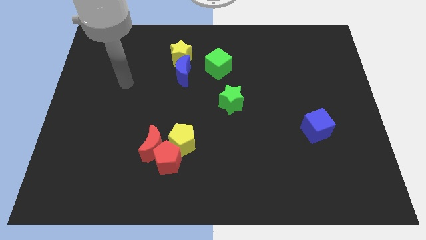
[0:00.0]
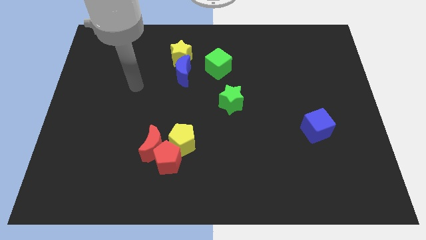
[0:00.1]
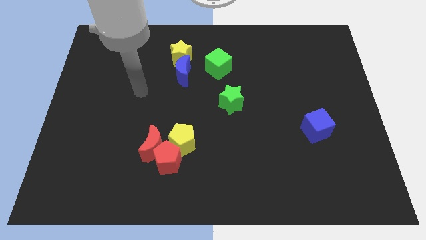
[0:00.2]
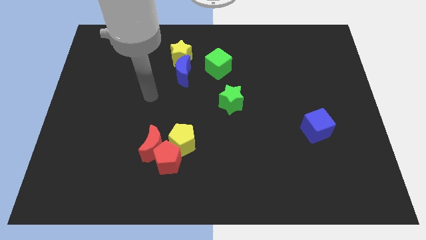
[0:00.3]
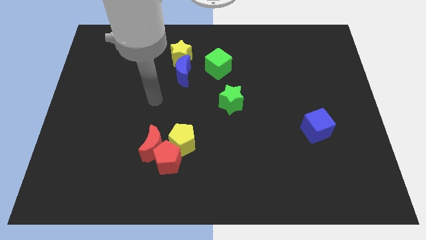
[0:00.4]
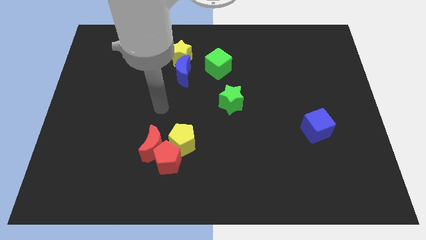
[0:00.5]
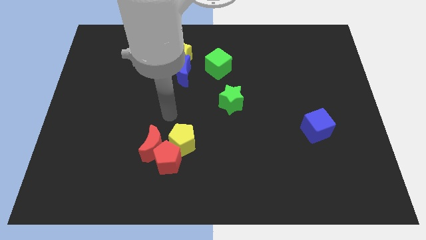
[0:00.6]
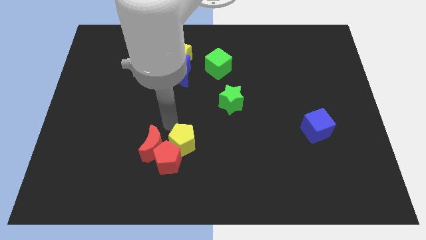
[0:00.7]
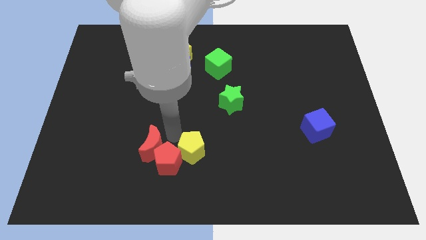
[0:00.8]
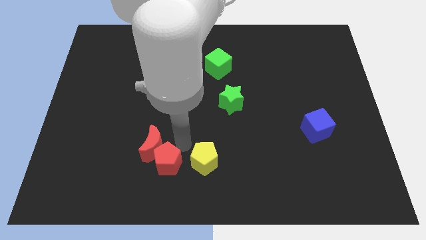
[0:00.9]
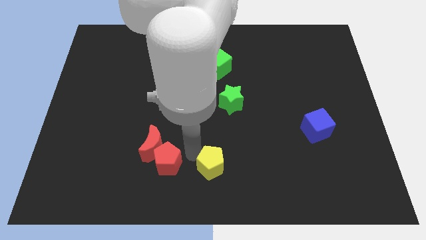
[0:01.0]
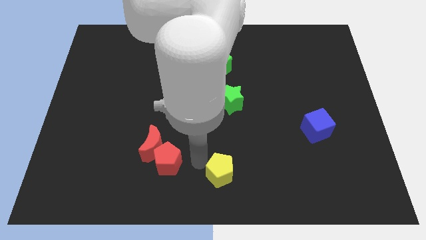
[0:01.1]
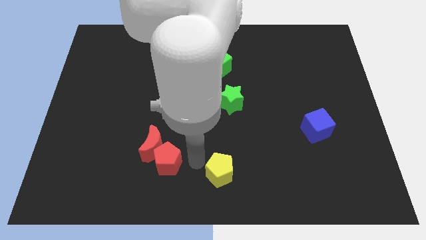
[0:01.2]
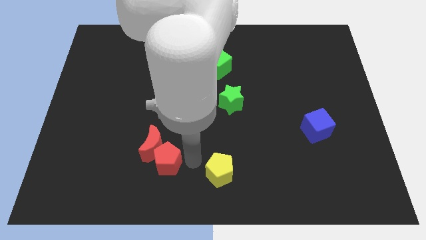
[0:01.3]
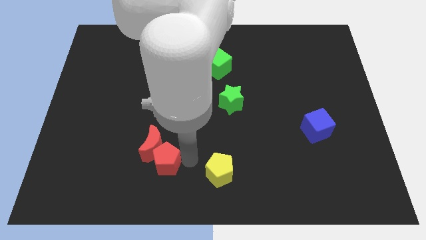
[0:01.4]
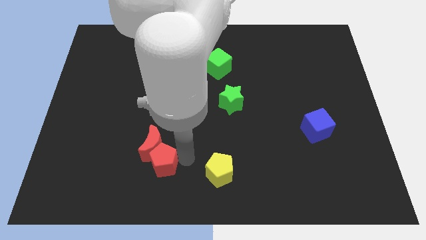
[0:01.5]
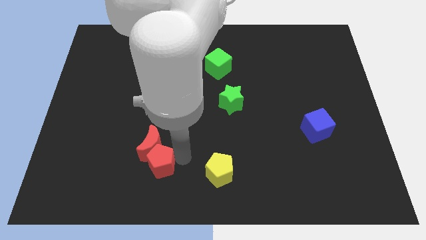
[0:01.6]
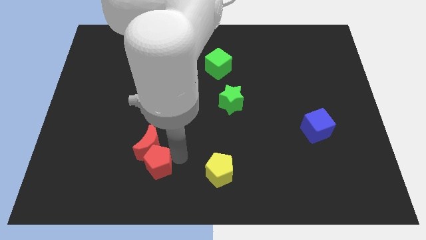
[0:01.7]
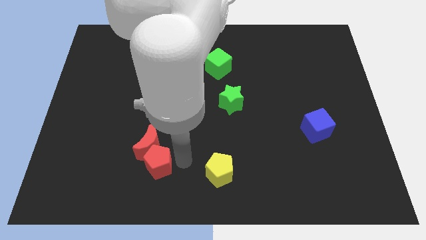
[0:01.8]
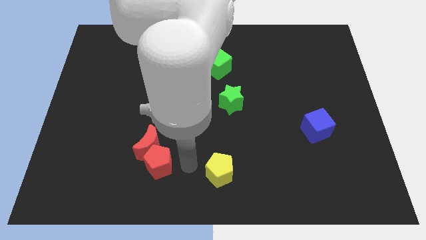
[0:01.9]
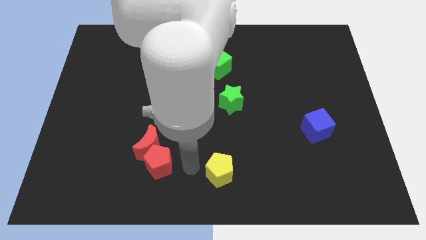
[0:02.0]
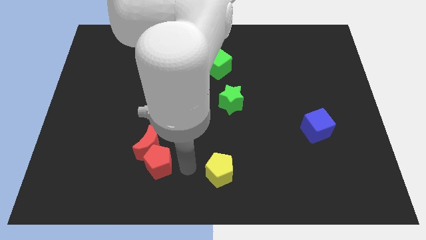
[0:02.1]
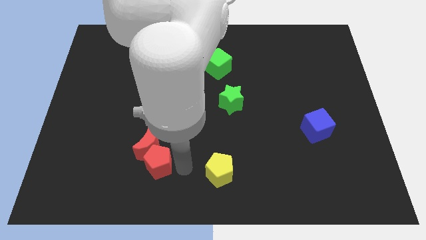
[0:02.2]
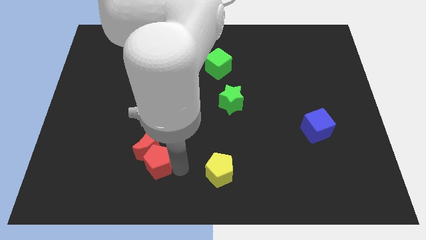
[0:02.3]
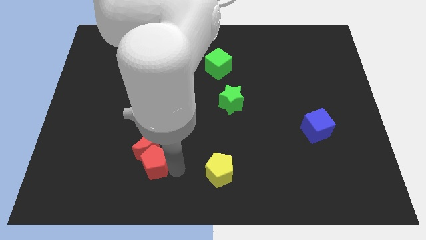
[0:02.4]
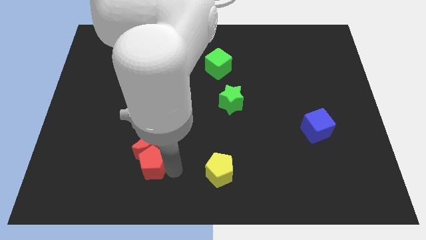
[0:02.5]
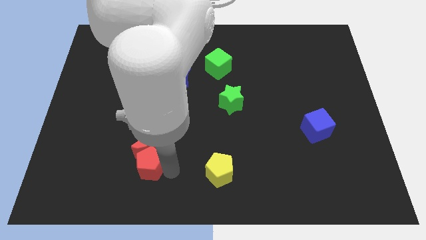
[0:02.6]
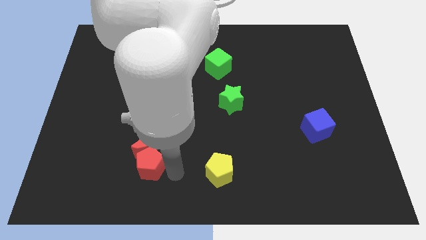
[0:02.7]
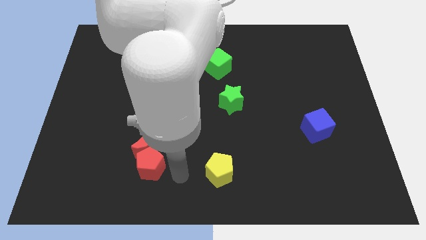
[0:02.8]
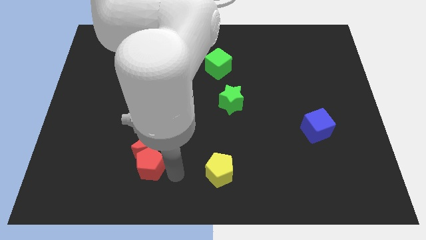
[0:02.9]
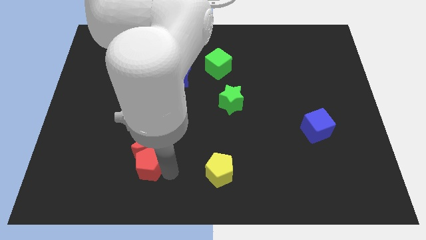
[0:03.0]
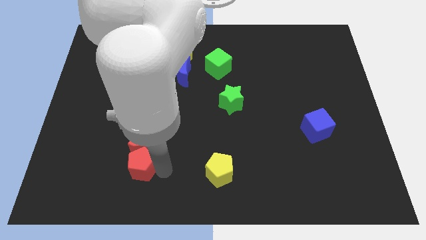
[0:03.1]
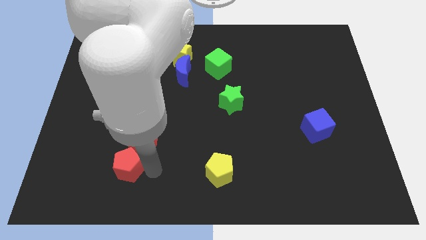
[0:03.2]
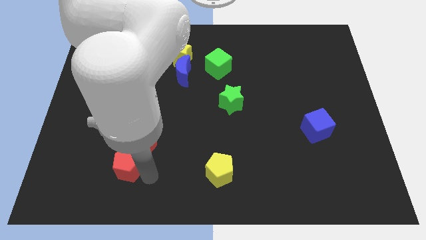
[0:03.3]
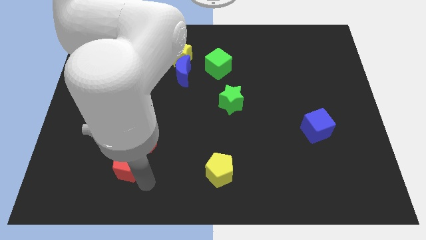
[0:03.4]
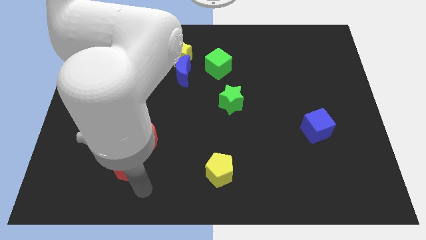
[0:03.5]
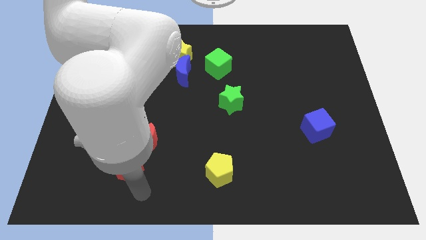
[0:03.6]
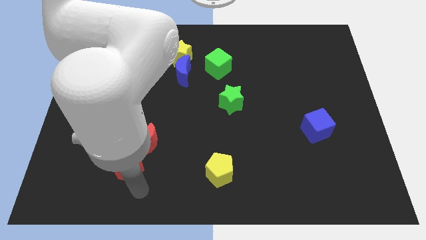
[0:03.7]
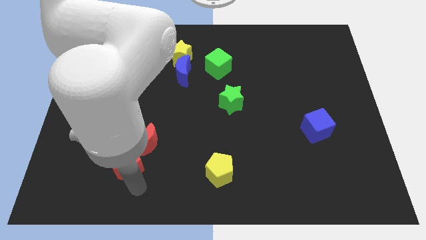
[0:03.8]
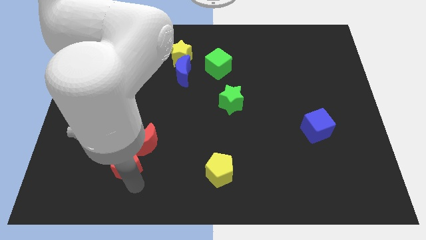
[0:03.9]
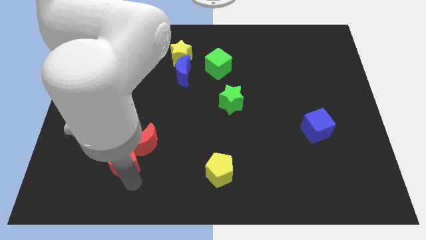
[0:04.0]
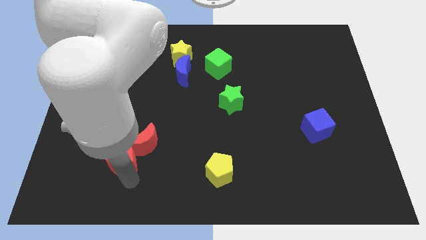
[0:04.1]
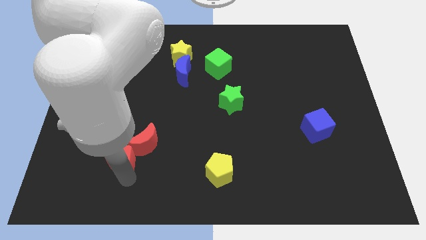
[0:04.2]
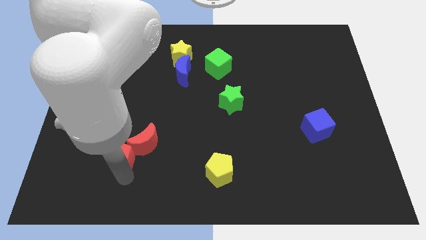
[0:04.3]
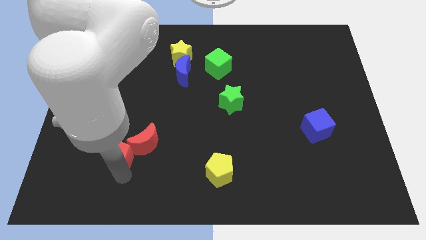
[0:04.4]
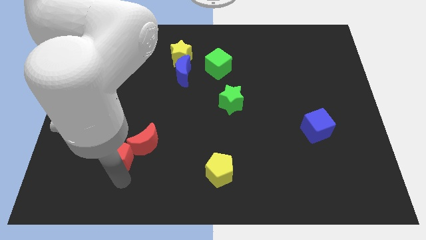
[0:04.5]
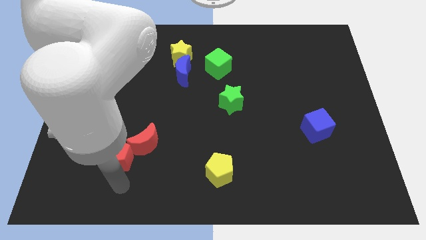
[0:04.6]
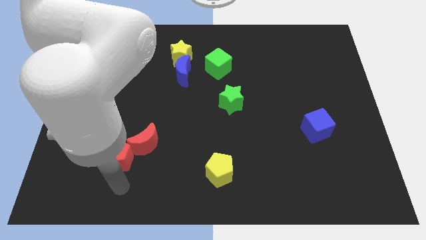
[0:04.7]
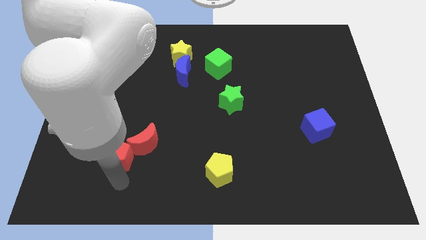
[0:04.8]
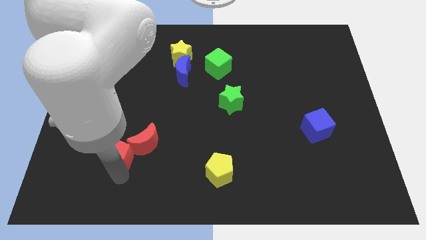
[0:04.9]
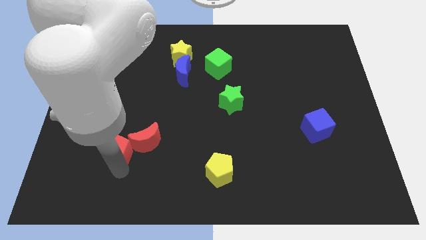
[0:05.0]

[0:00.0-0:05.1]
slide the red pentagon somewhat upwards and left

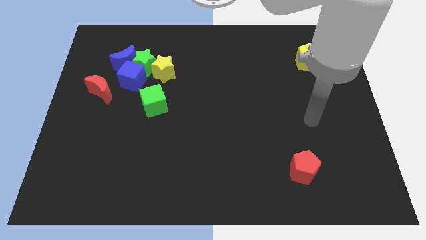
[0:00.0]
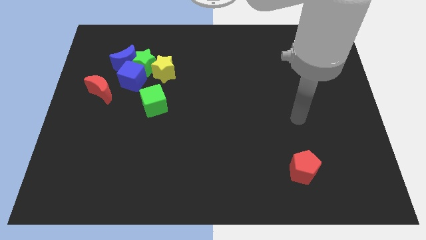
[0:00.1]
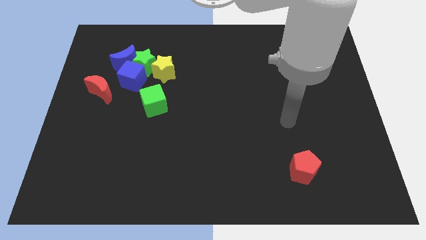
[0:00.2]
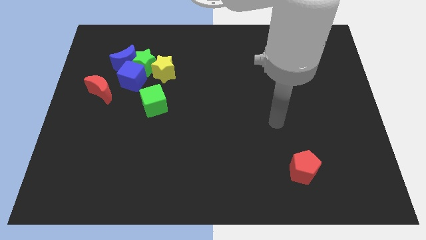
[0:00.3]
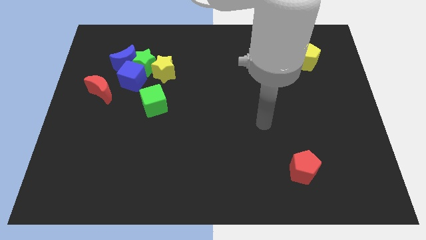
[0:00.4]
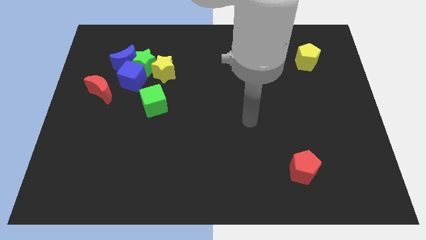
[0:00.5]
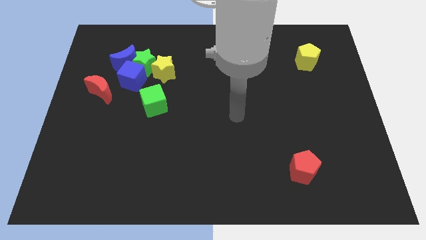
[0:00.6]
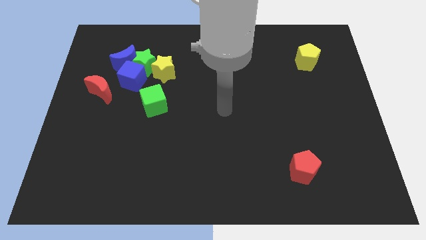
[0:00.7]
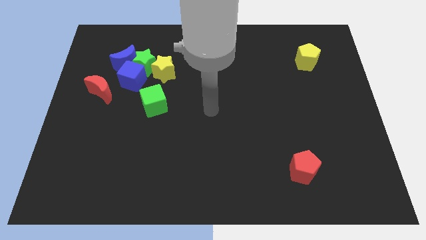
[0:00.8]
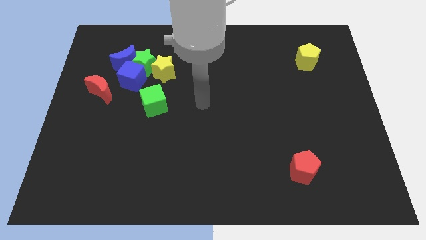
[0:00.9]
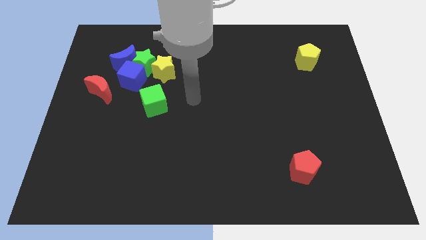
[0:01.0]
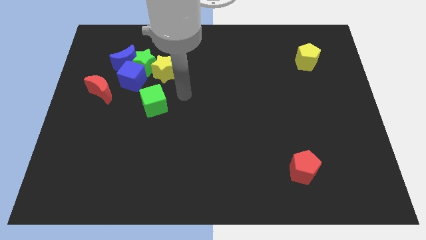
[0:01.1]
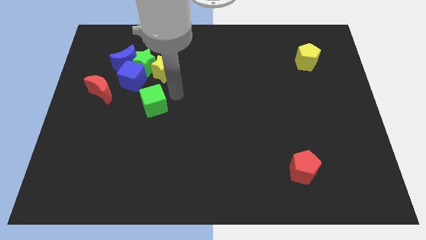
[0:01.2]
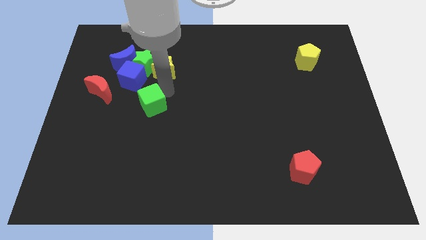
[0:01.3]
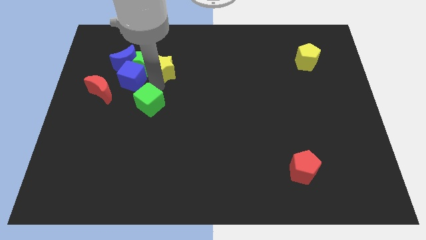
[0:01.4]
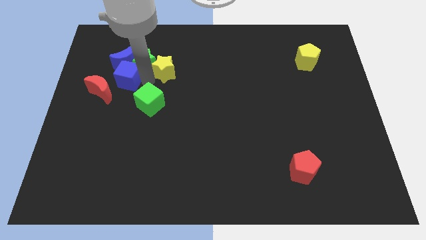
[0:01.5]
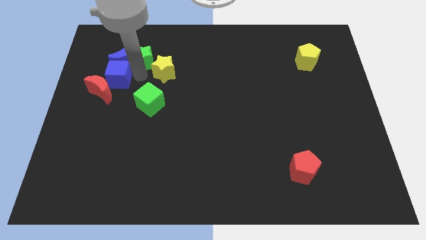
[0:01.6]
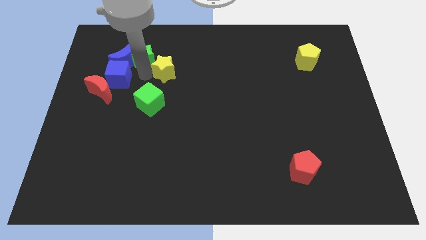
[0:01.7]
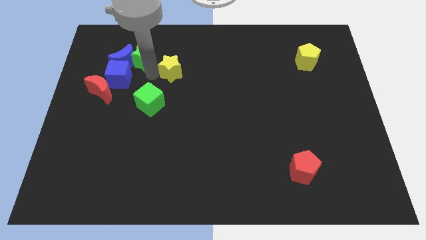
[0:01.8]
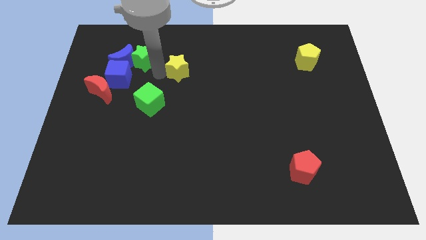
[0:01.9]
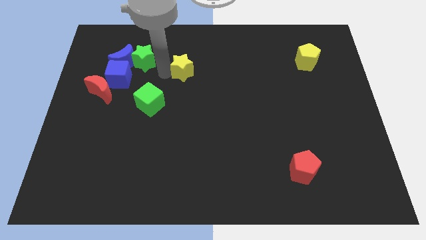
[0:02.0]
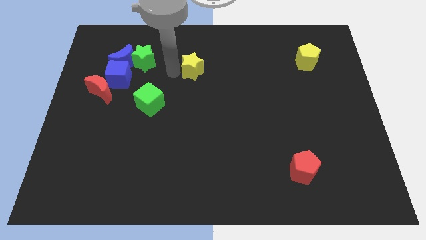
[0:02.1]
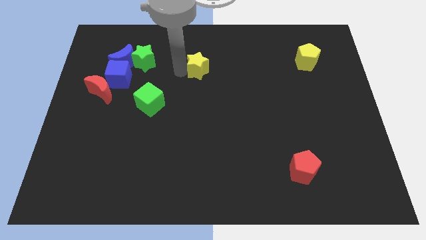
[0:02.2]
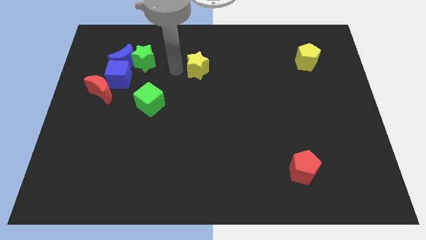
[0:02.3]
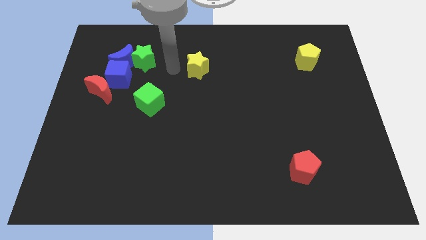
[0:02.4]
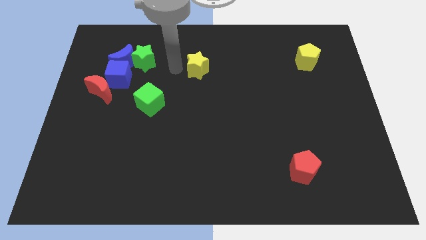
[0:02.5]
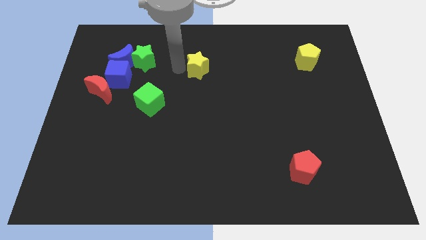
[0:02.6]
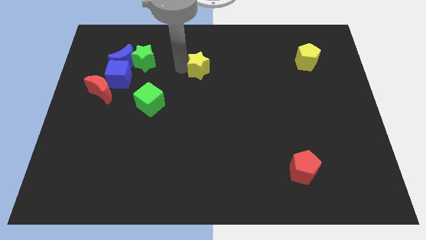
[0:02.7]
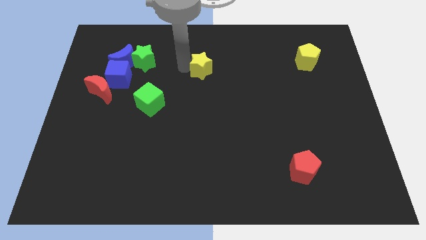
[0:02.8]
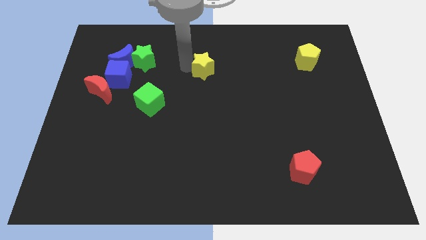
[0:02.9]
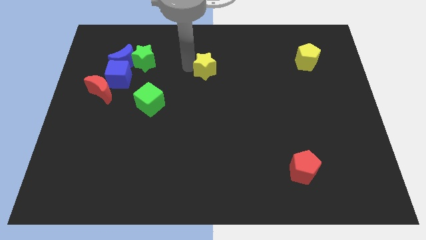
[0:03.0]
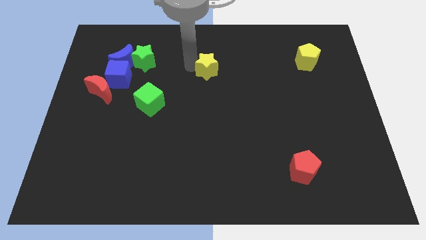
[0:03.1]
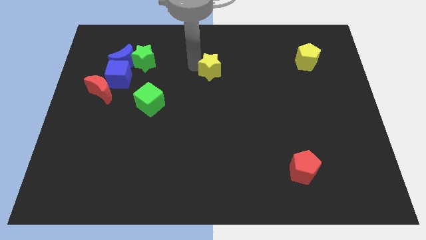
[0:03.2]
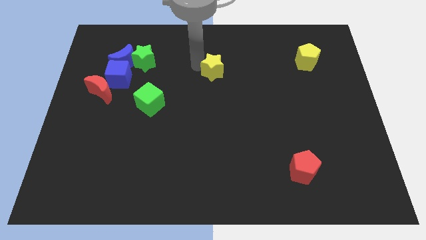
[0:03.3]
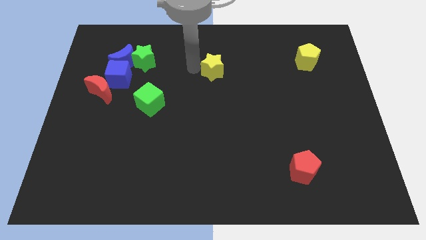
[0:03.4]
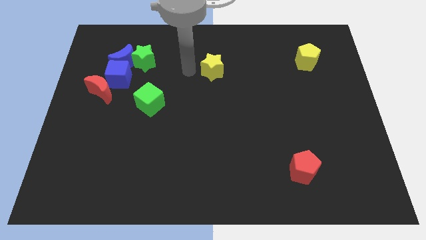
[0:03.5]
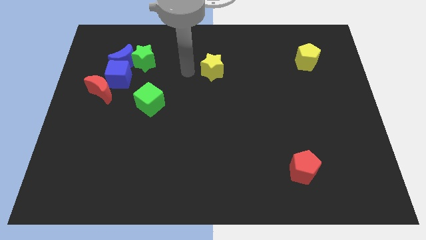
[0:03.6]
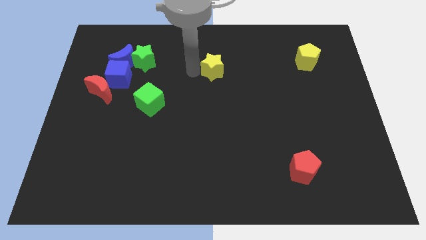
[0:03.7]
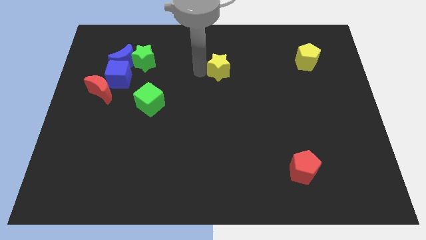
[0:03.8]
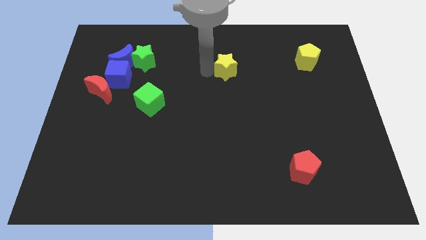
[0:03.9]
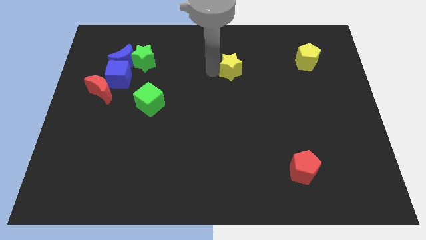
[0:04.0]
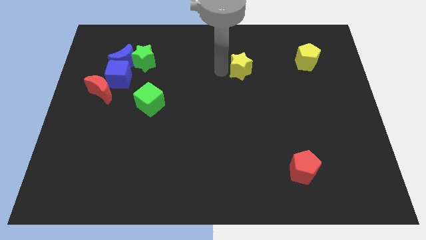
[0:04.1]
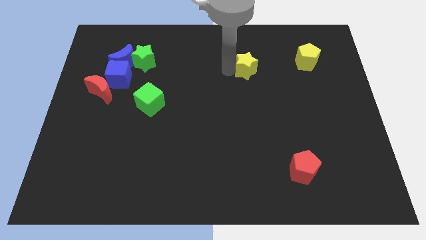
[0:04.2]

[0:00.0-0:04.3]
push the yellow star to the right
